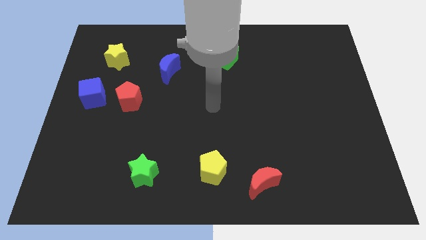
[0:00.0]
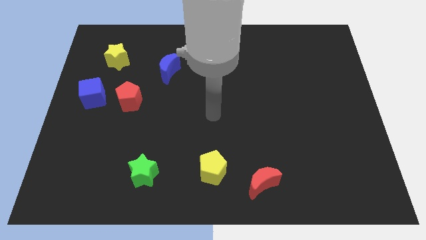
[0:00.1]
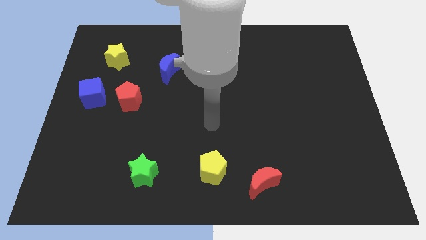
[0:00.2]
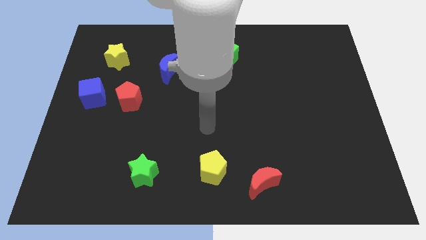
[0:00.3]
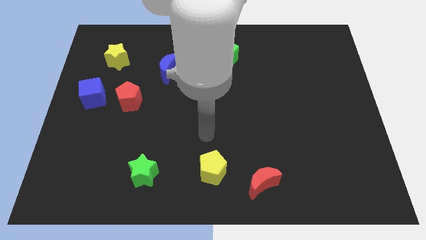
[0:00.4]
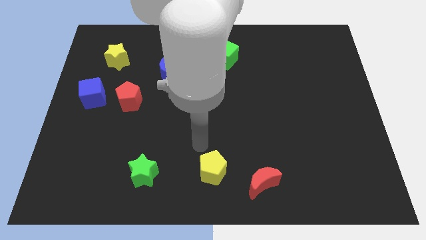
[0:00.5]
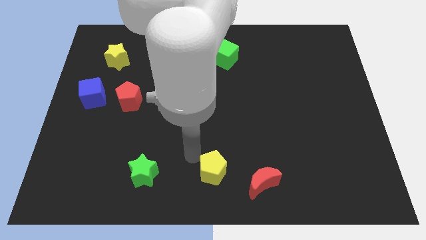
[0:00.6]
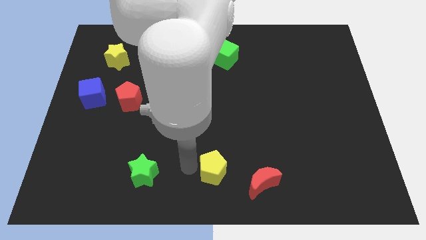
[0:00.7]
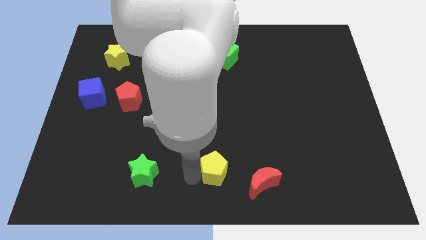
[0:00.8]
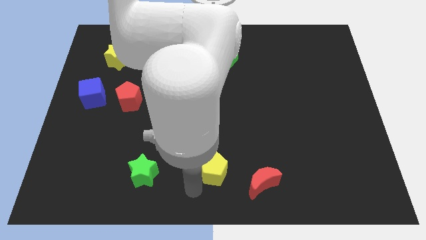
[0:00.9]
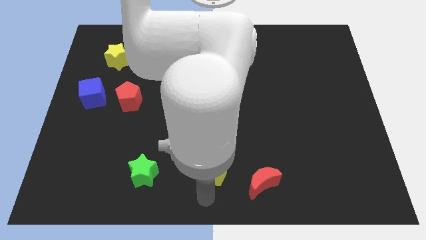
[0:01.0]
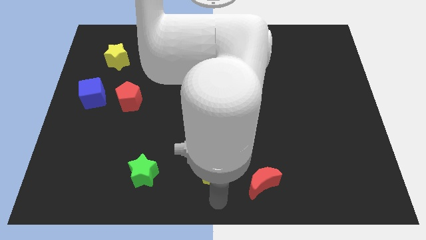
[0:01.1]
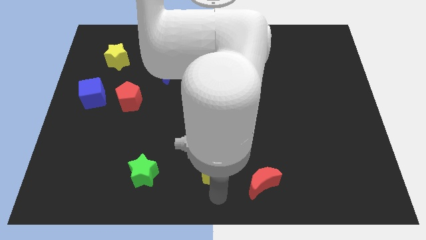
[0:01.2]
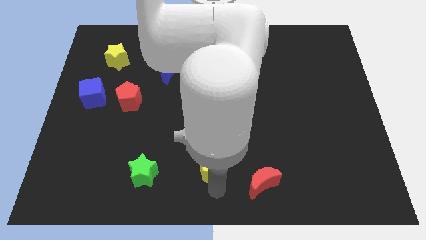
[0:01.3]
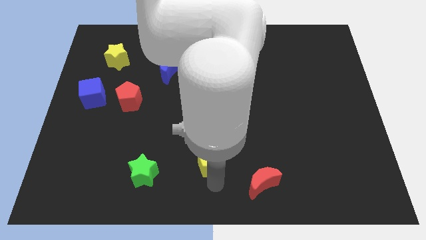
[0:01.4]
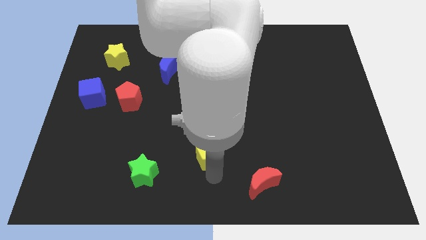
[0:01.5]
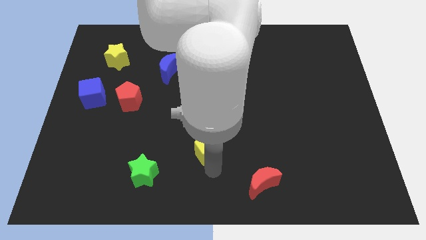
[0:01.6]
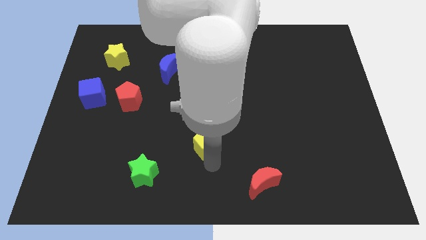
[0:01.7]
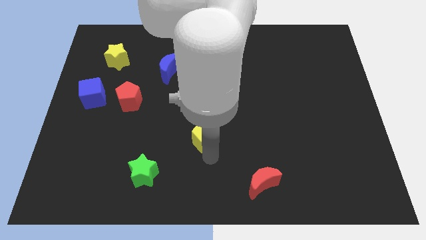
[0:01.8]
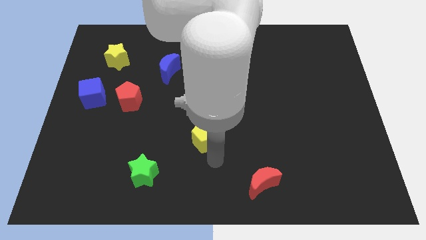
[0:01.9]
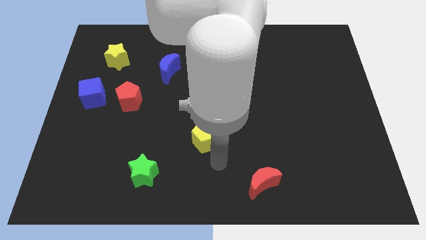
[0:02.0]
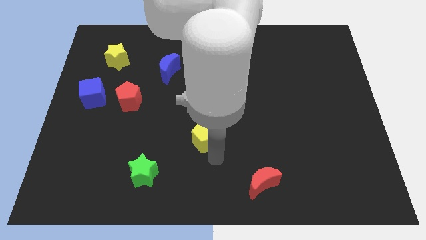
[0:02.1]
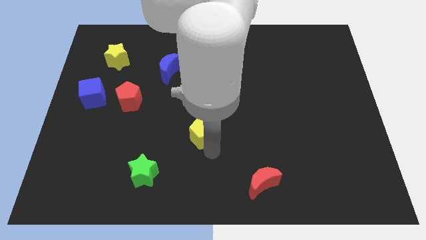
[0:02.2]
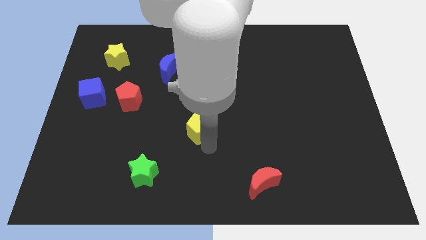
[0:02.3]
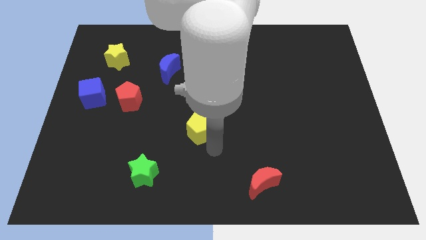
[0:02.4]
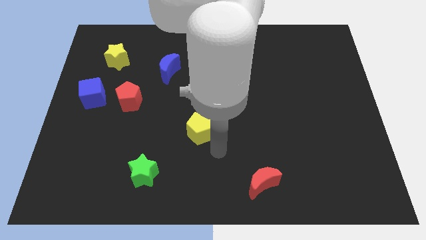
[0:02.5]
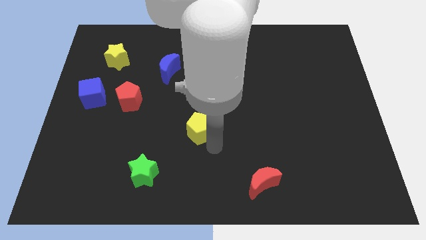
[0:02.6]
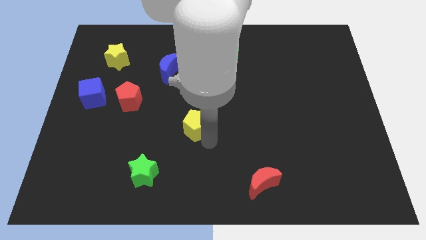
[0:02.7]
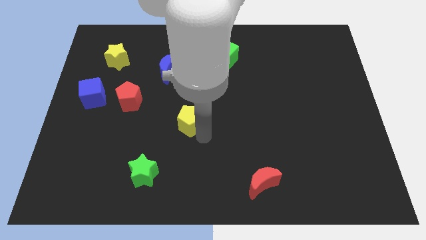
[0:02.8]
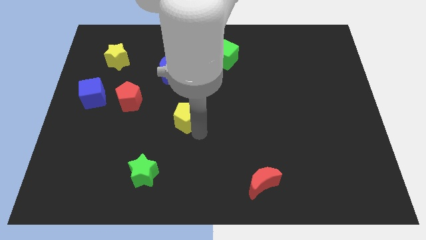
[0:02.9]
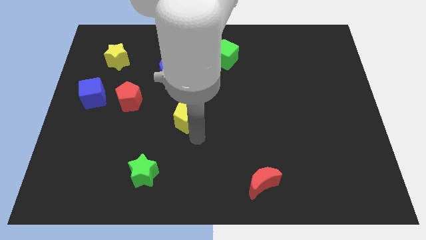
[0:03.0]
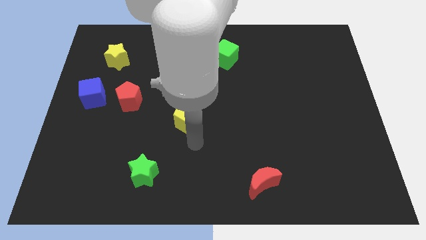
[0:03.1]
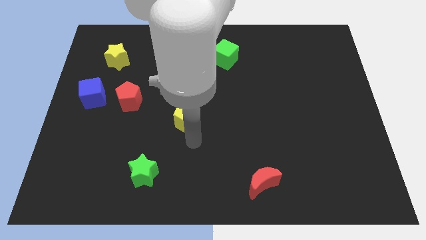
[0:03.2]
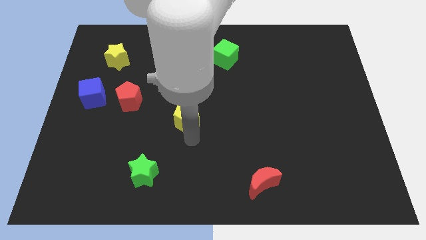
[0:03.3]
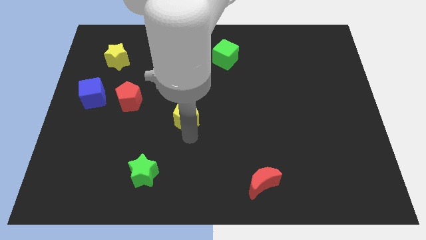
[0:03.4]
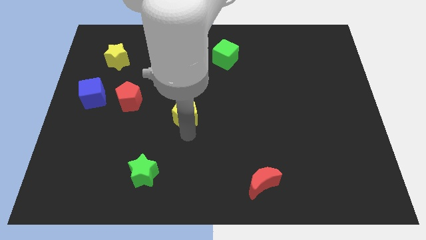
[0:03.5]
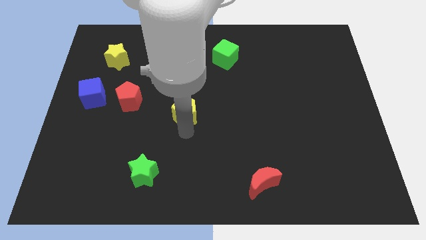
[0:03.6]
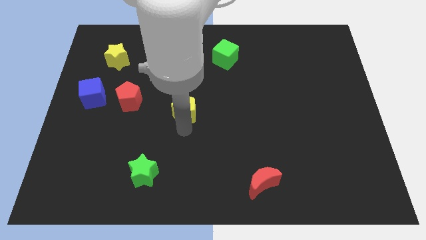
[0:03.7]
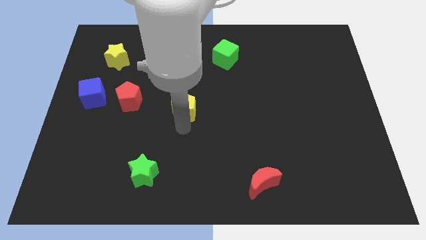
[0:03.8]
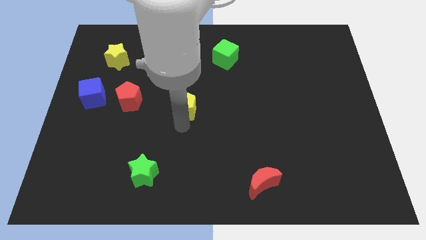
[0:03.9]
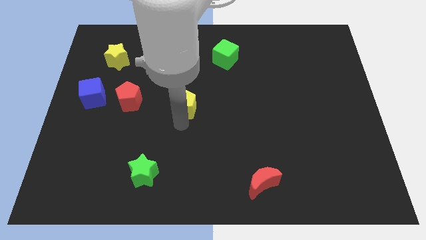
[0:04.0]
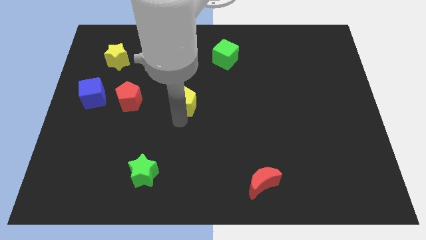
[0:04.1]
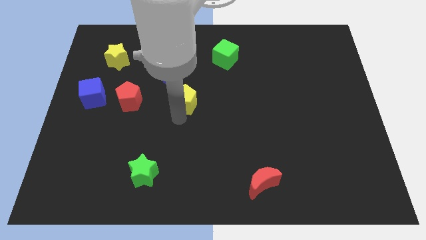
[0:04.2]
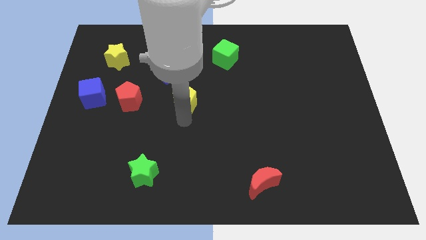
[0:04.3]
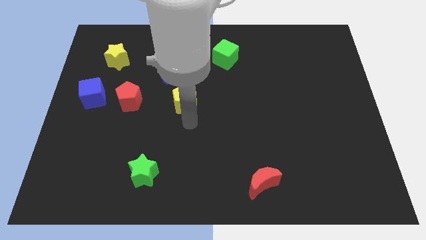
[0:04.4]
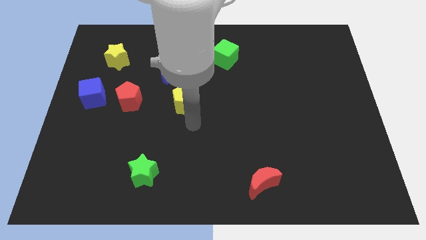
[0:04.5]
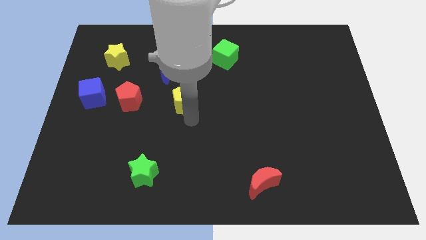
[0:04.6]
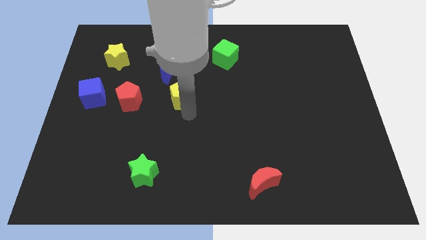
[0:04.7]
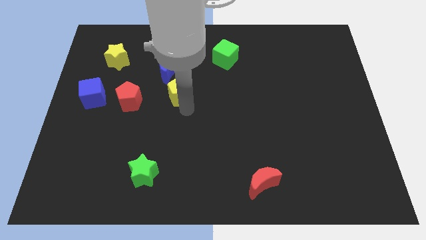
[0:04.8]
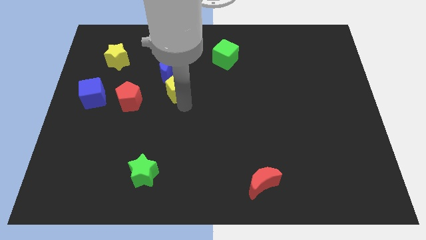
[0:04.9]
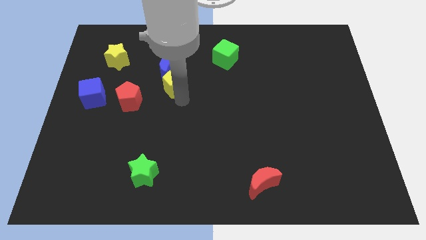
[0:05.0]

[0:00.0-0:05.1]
slide the yellow pentagon to the blue moon

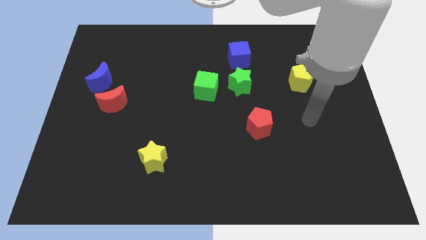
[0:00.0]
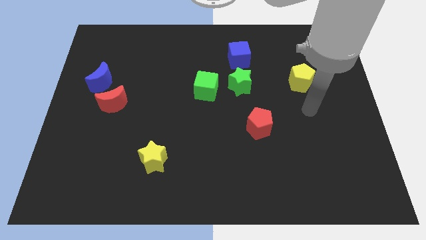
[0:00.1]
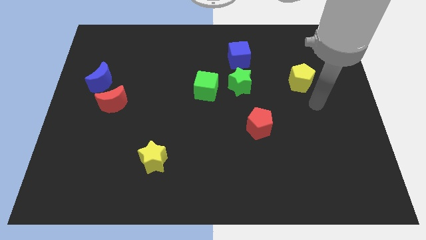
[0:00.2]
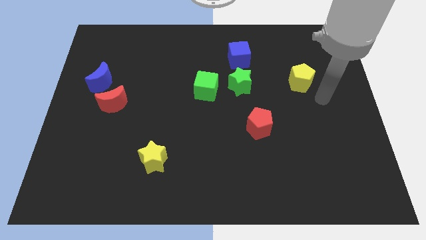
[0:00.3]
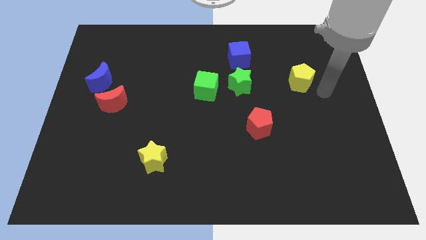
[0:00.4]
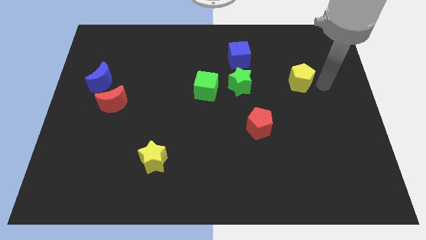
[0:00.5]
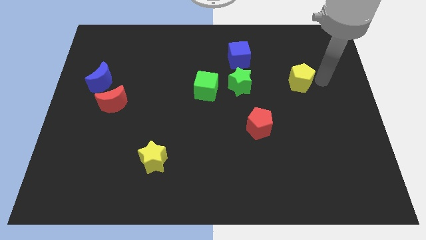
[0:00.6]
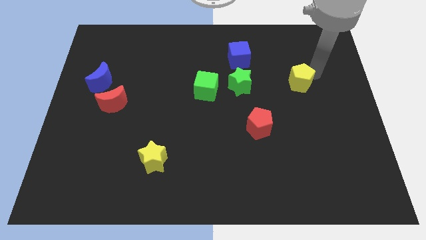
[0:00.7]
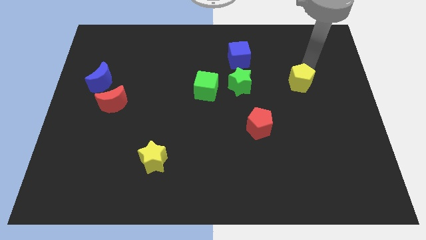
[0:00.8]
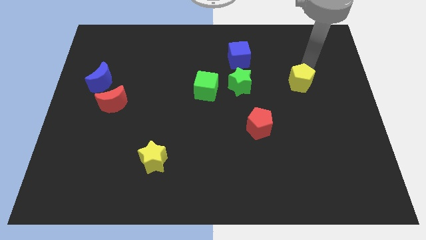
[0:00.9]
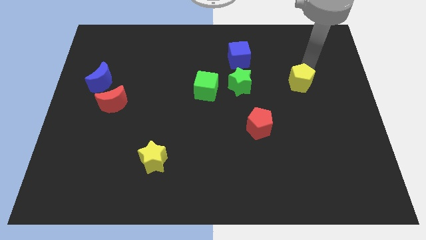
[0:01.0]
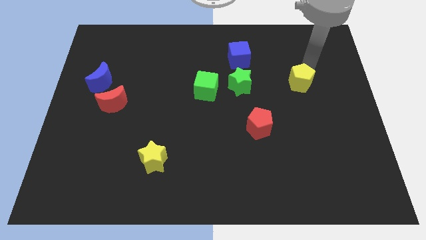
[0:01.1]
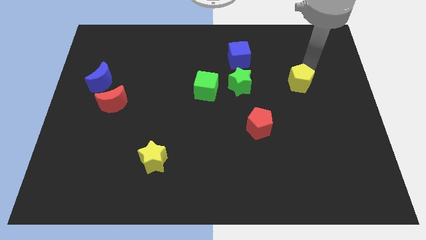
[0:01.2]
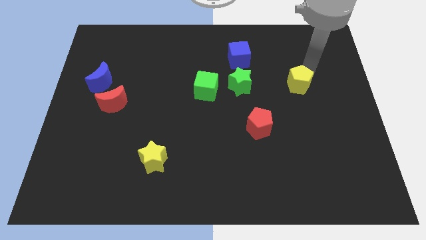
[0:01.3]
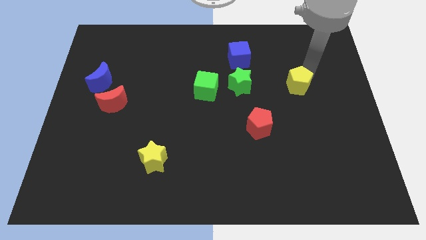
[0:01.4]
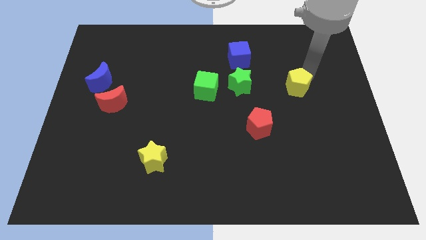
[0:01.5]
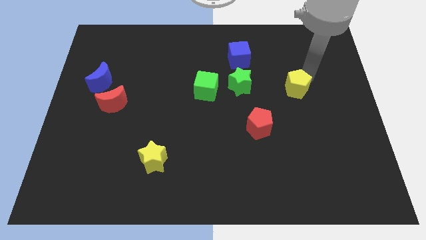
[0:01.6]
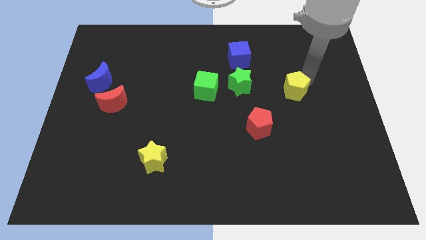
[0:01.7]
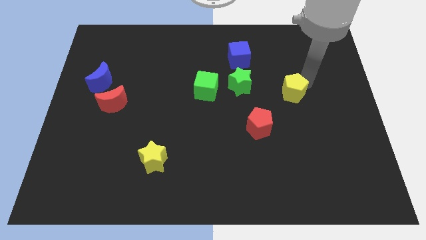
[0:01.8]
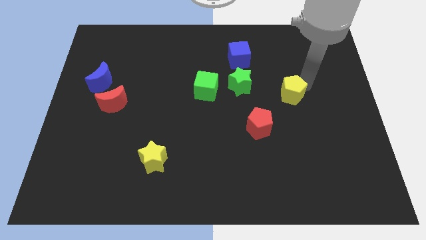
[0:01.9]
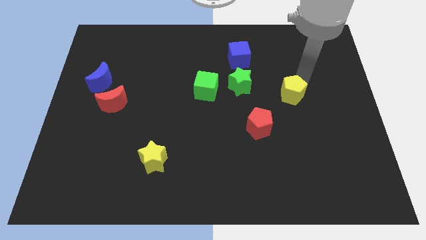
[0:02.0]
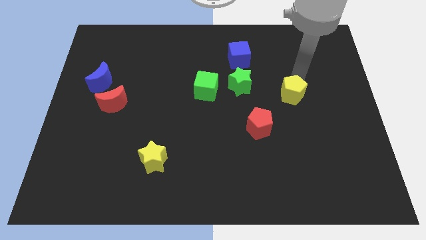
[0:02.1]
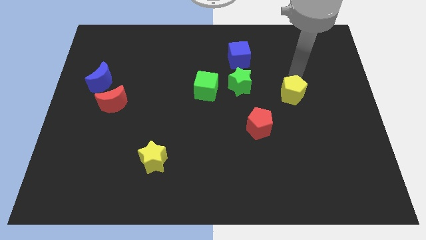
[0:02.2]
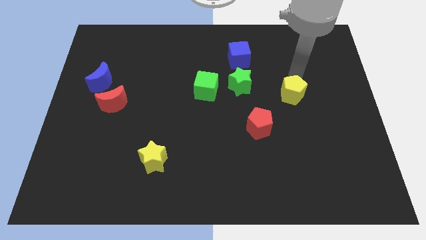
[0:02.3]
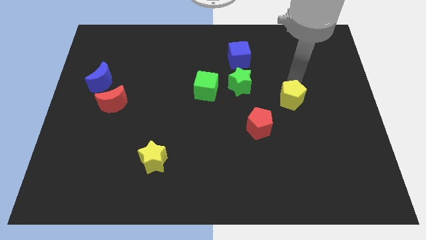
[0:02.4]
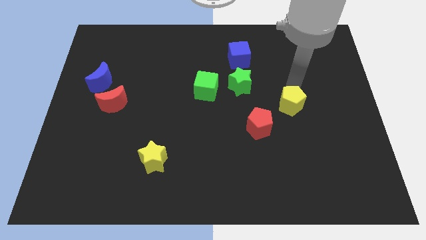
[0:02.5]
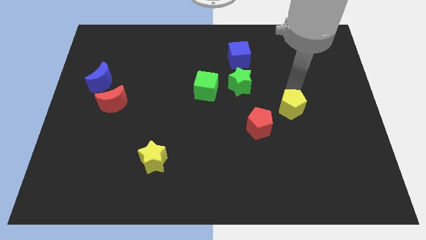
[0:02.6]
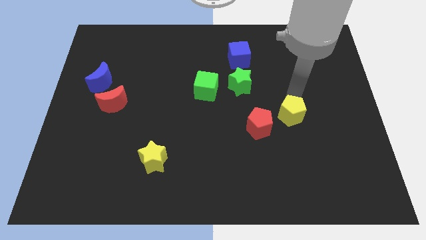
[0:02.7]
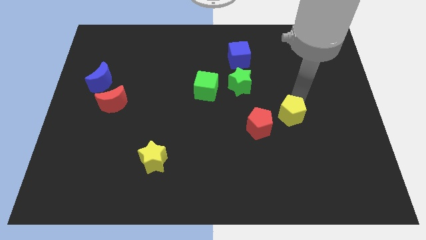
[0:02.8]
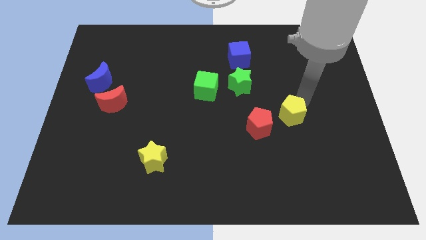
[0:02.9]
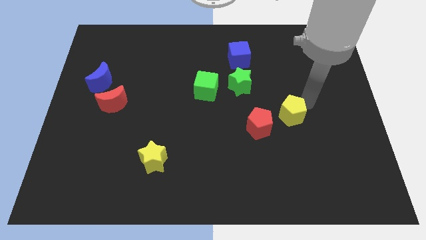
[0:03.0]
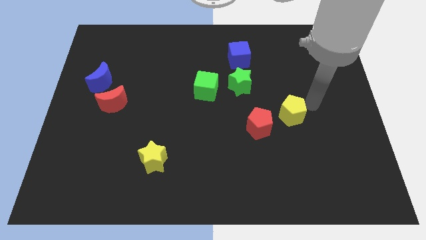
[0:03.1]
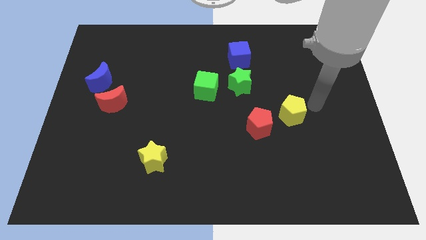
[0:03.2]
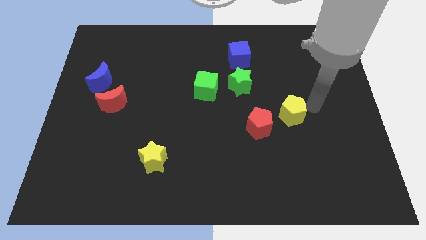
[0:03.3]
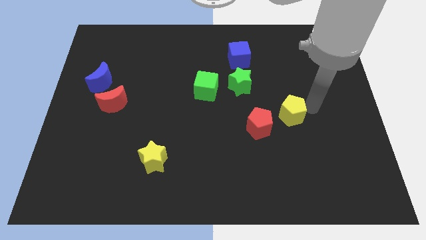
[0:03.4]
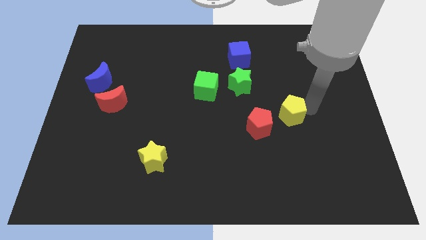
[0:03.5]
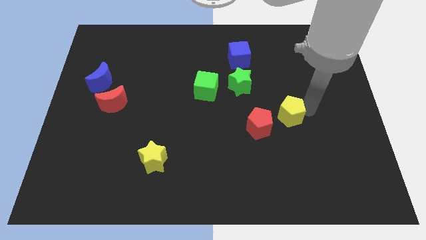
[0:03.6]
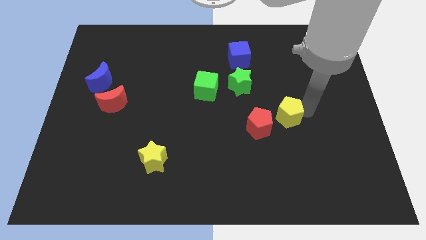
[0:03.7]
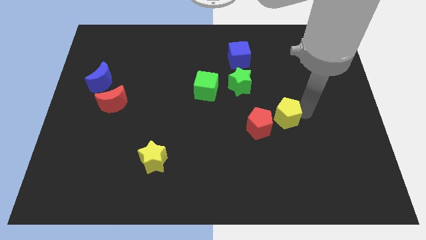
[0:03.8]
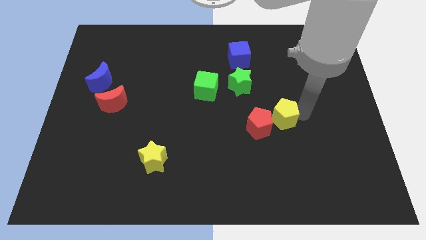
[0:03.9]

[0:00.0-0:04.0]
slide the yellow pentagon to the red pentagon
